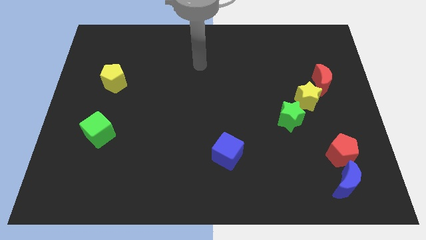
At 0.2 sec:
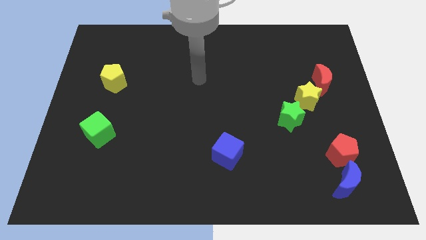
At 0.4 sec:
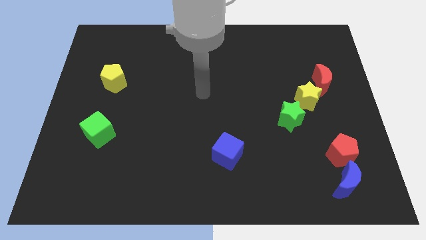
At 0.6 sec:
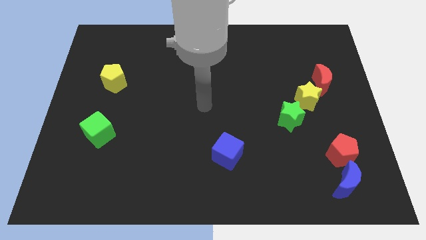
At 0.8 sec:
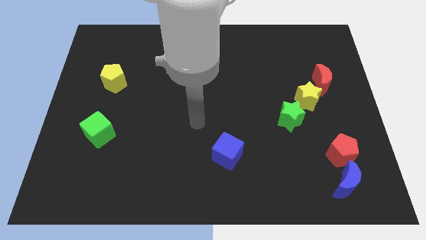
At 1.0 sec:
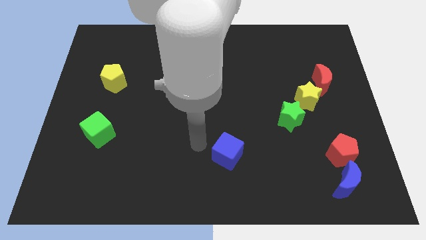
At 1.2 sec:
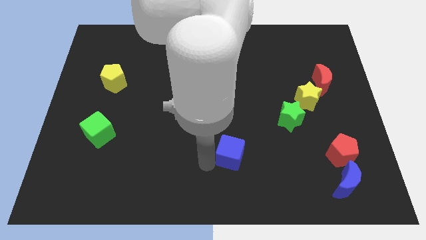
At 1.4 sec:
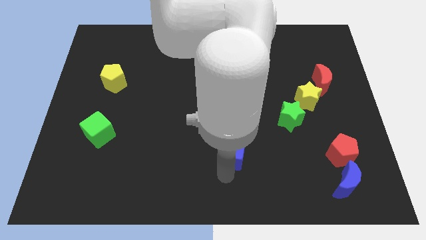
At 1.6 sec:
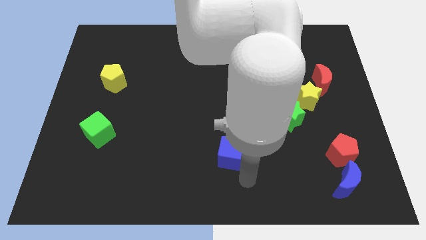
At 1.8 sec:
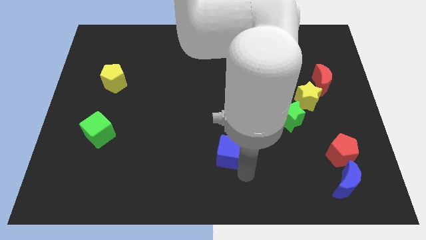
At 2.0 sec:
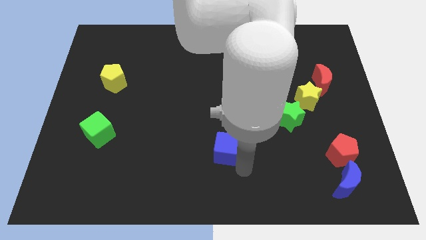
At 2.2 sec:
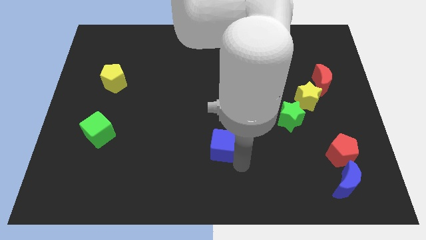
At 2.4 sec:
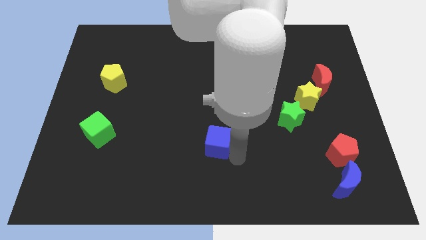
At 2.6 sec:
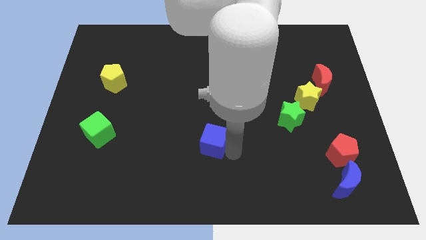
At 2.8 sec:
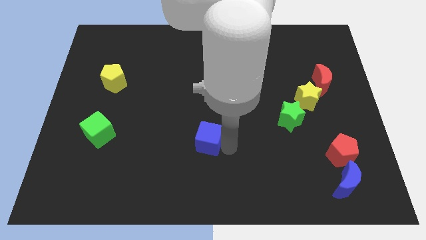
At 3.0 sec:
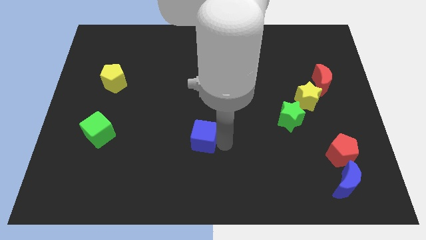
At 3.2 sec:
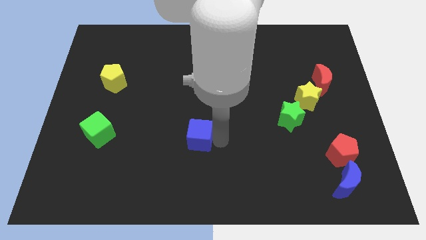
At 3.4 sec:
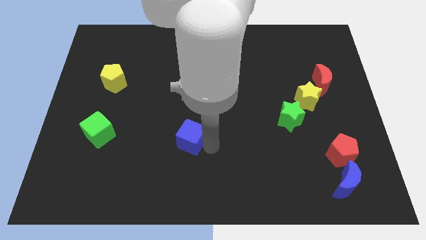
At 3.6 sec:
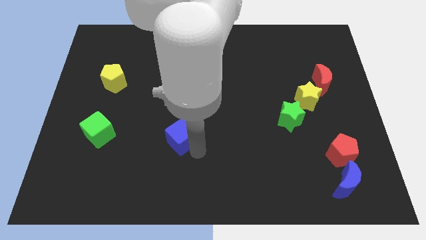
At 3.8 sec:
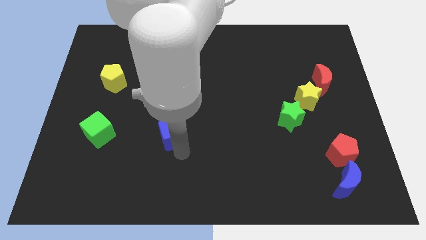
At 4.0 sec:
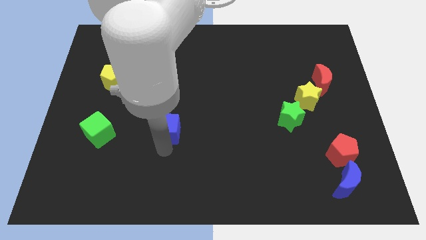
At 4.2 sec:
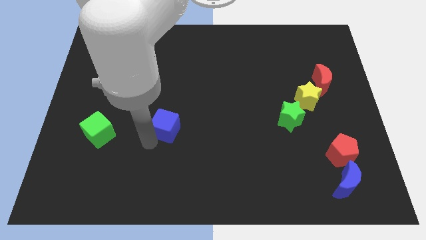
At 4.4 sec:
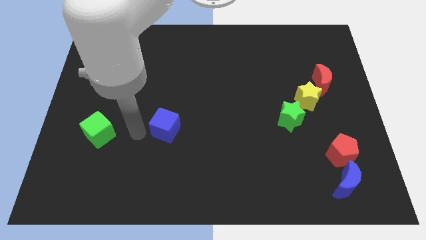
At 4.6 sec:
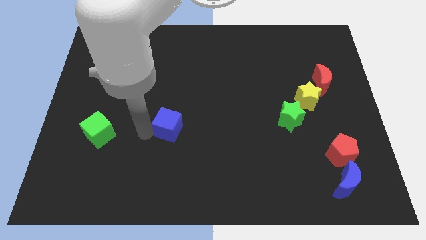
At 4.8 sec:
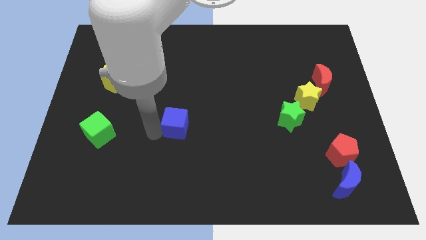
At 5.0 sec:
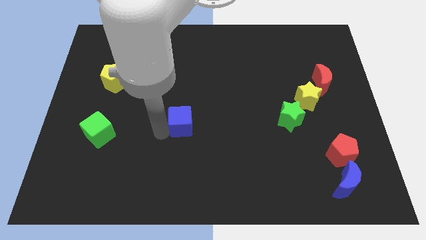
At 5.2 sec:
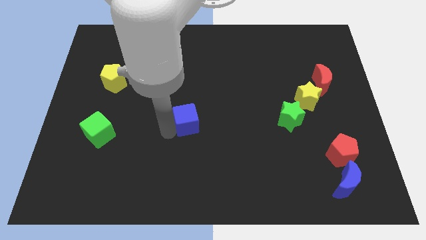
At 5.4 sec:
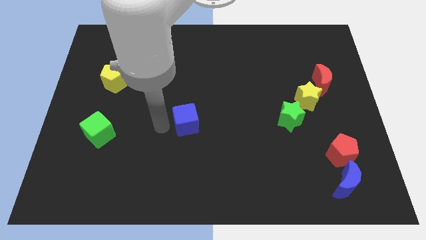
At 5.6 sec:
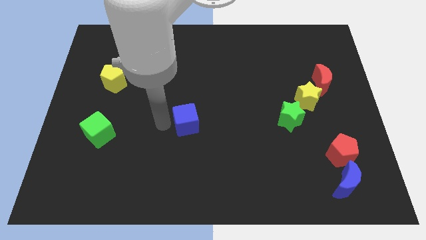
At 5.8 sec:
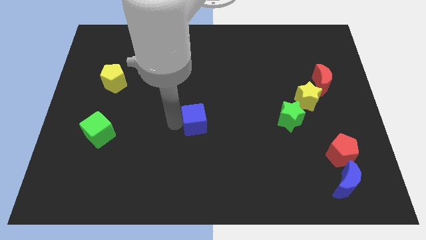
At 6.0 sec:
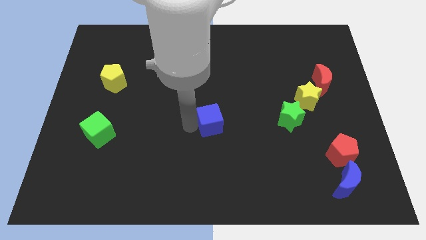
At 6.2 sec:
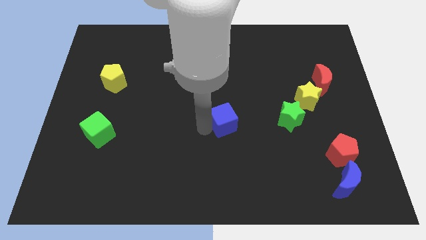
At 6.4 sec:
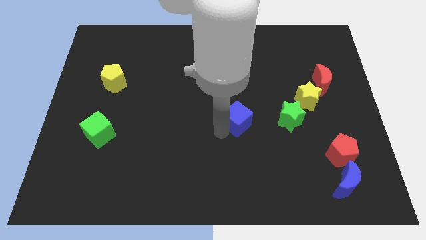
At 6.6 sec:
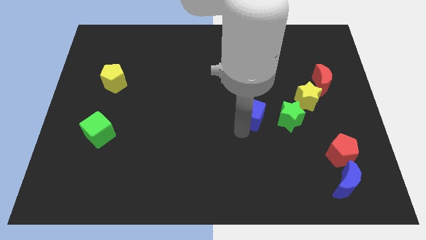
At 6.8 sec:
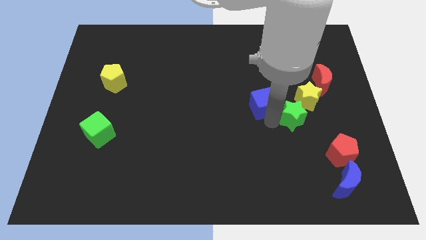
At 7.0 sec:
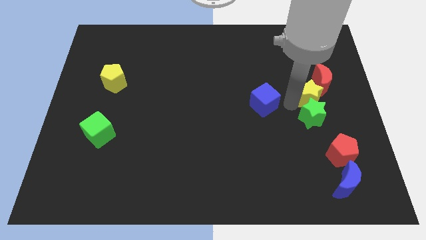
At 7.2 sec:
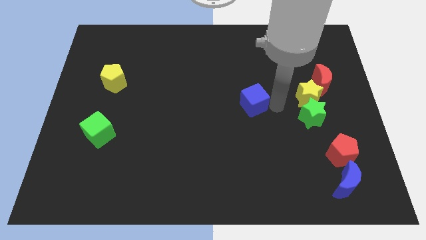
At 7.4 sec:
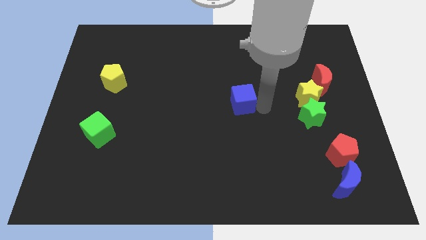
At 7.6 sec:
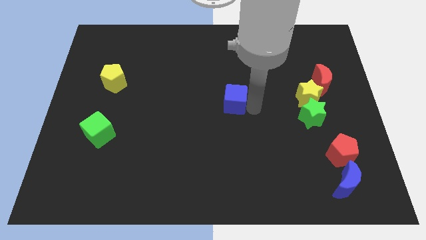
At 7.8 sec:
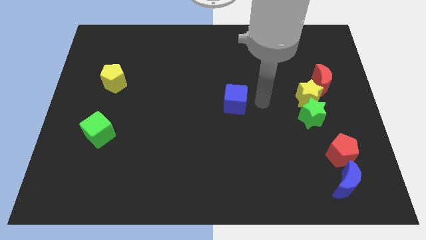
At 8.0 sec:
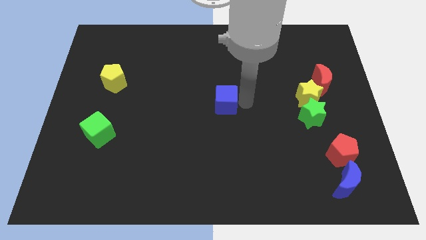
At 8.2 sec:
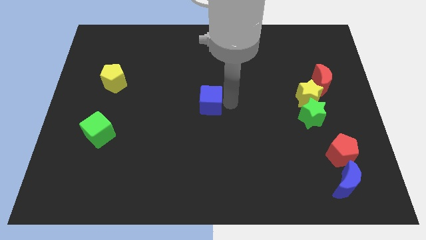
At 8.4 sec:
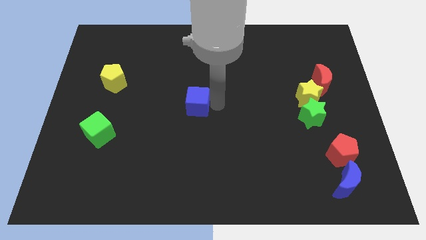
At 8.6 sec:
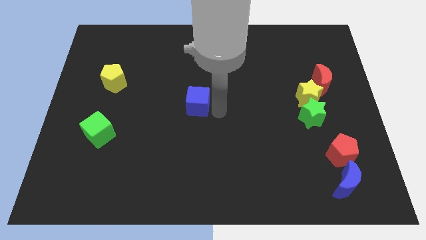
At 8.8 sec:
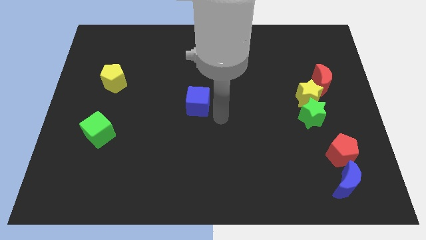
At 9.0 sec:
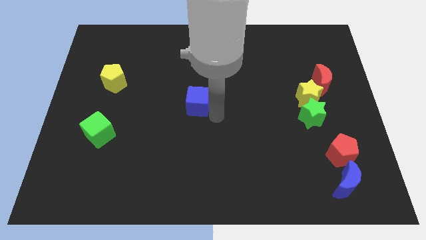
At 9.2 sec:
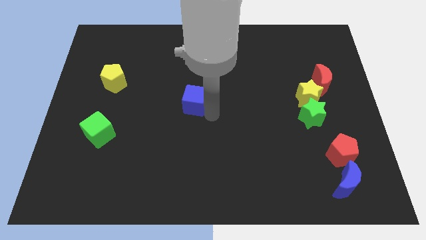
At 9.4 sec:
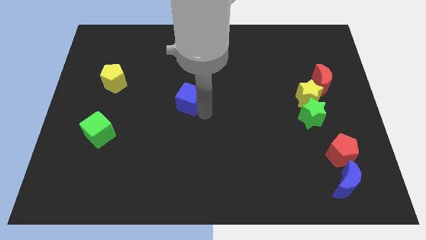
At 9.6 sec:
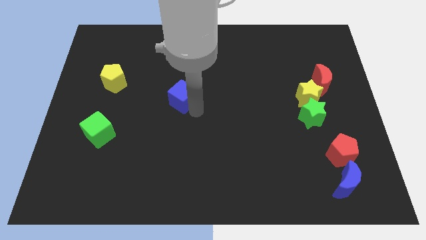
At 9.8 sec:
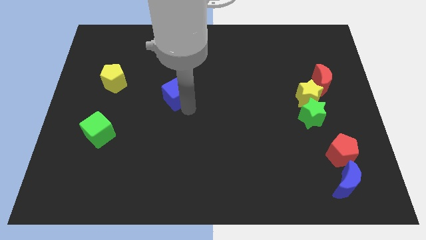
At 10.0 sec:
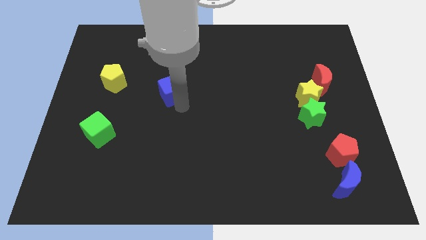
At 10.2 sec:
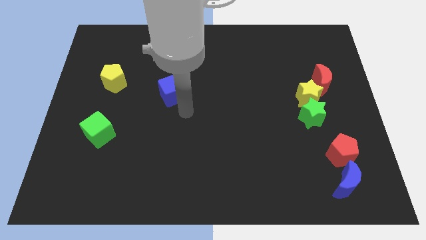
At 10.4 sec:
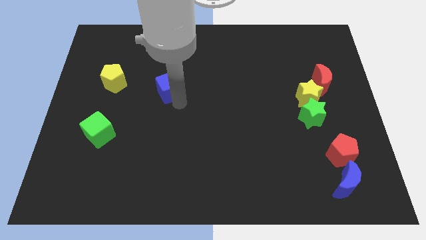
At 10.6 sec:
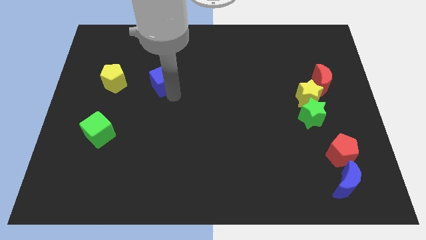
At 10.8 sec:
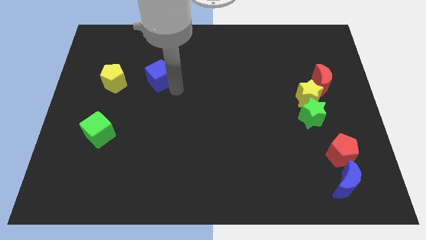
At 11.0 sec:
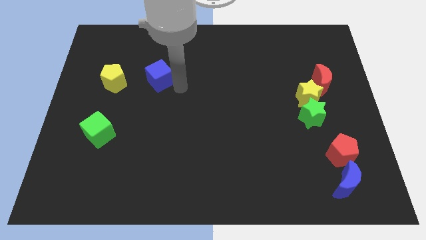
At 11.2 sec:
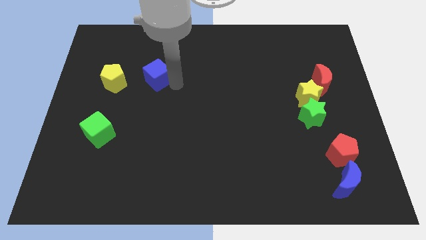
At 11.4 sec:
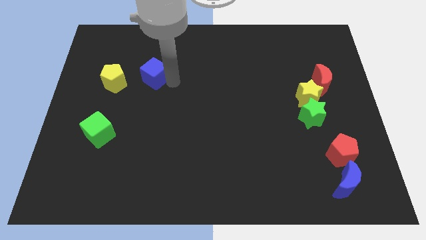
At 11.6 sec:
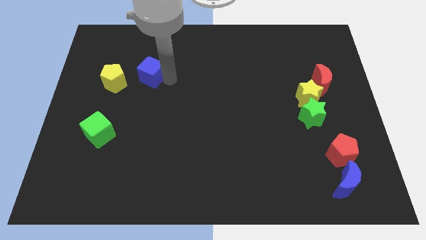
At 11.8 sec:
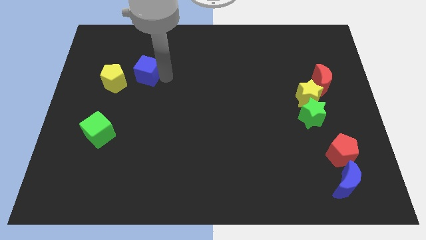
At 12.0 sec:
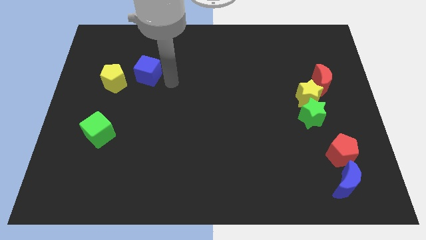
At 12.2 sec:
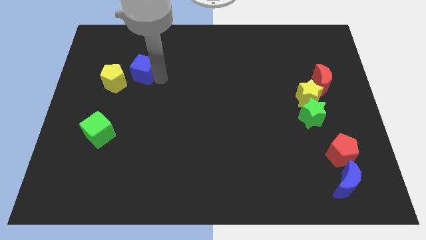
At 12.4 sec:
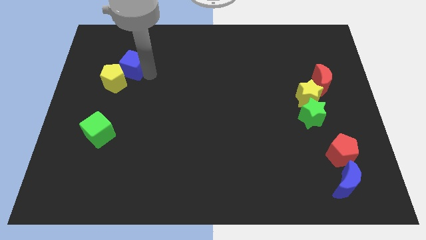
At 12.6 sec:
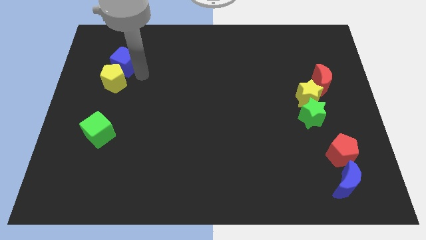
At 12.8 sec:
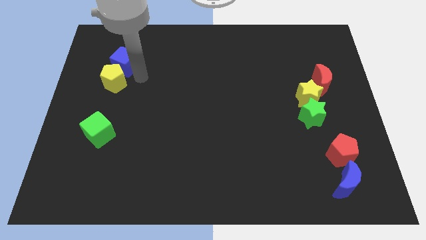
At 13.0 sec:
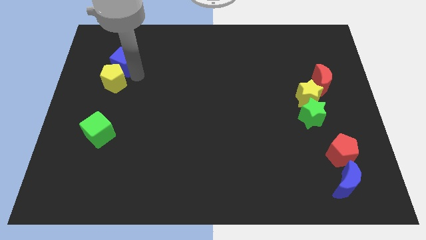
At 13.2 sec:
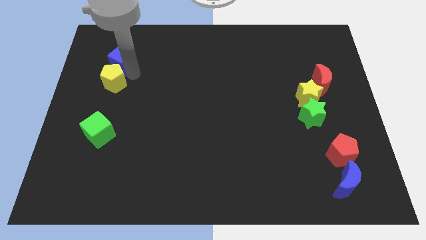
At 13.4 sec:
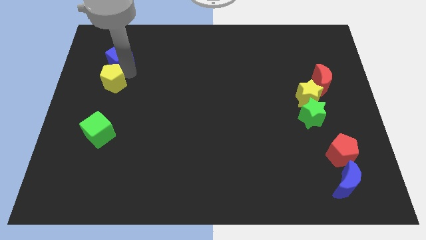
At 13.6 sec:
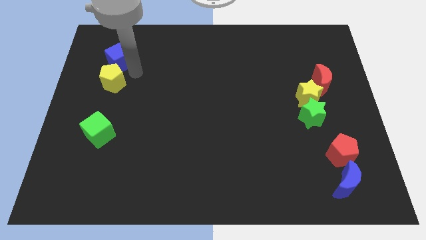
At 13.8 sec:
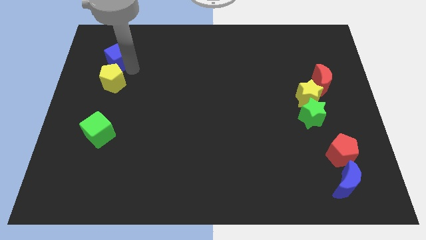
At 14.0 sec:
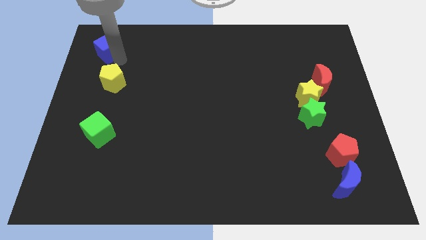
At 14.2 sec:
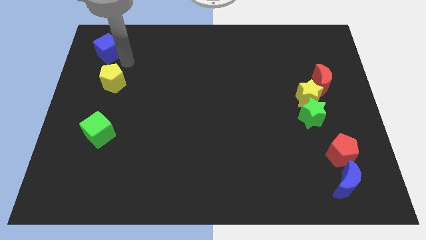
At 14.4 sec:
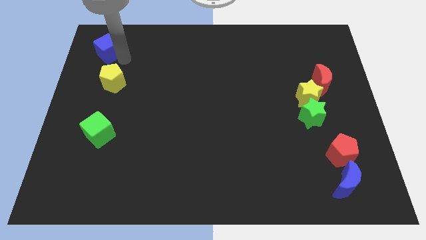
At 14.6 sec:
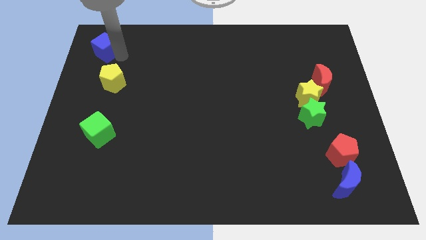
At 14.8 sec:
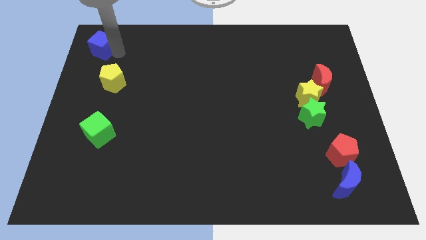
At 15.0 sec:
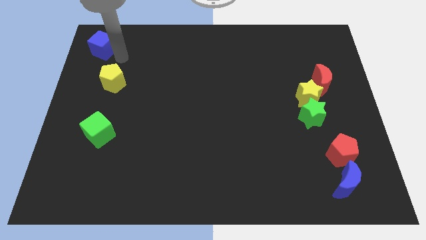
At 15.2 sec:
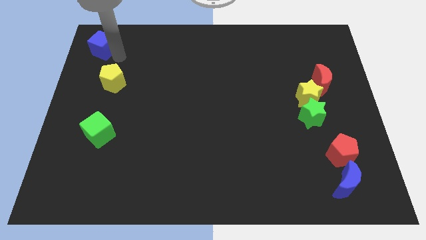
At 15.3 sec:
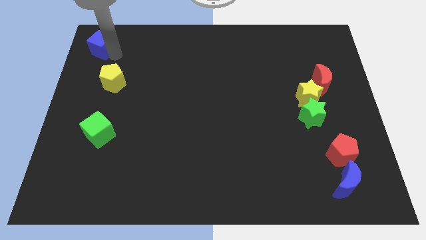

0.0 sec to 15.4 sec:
move the blue cube to the top left corner
